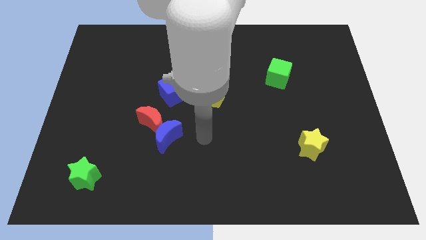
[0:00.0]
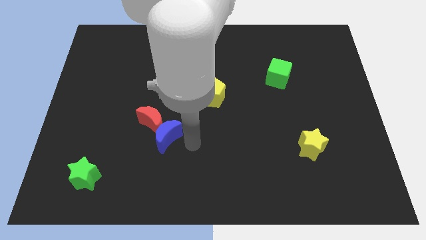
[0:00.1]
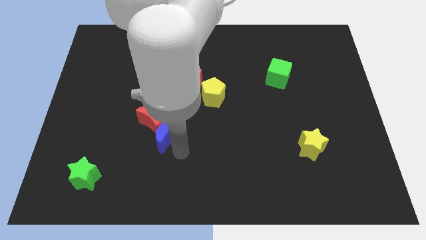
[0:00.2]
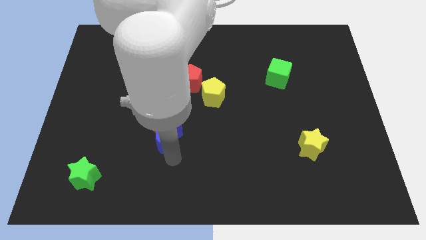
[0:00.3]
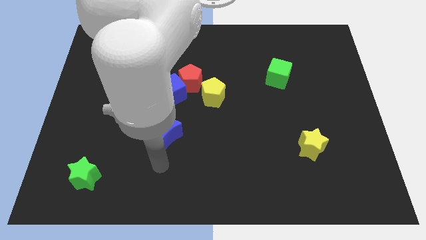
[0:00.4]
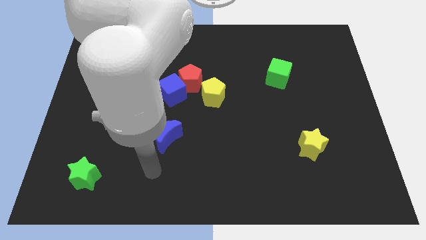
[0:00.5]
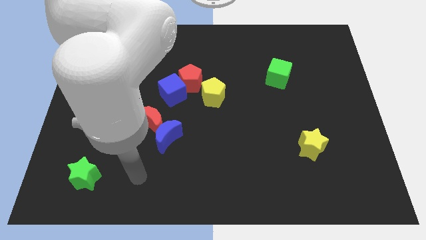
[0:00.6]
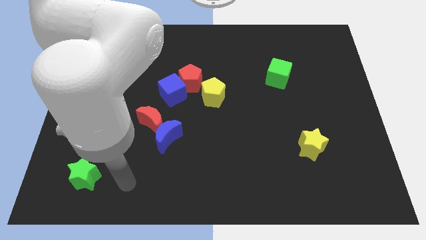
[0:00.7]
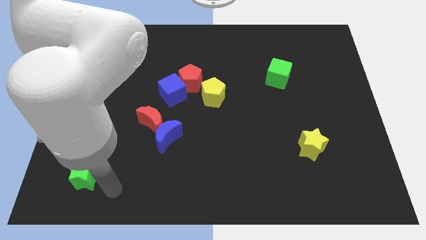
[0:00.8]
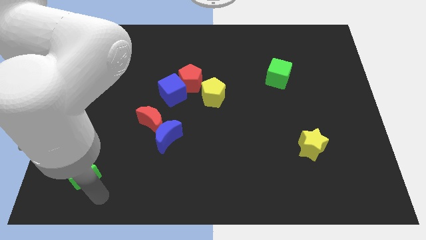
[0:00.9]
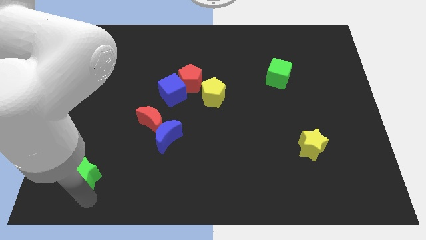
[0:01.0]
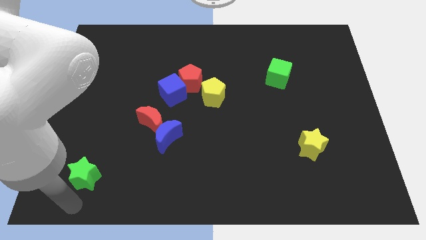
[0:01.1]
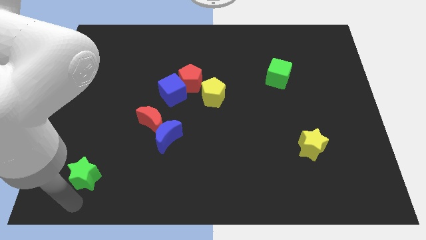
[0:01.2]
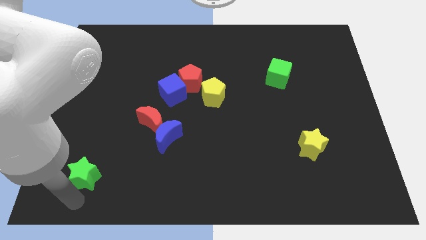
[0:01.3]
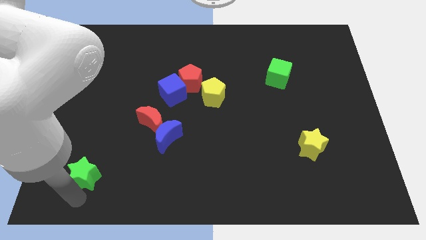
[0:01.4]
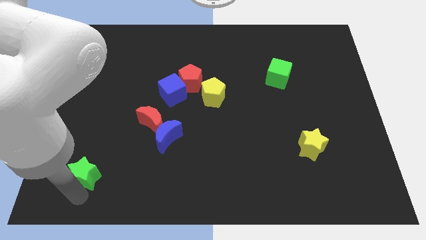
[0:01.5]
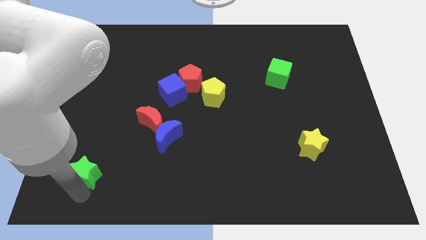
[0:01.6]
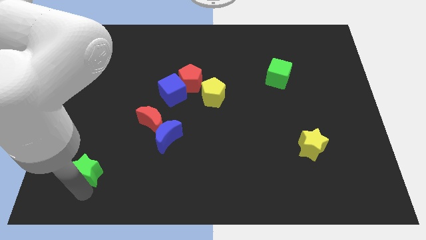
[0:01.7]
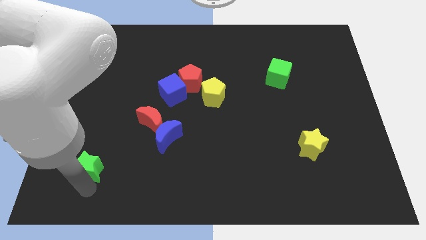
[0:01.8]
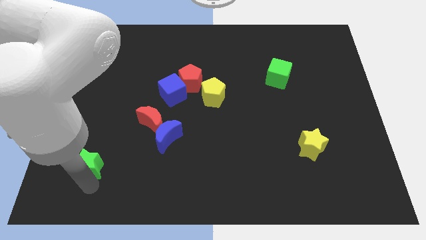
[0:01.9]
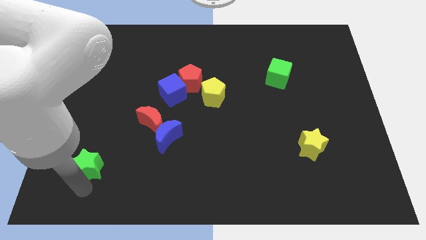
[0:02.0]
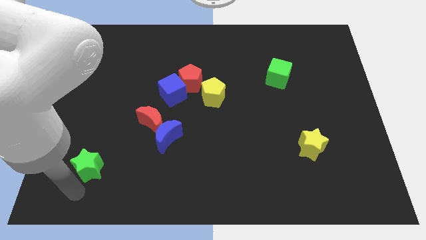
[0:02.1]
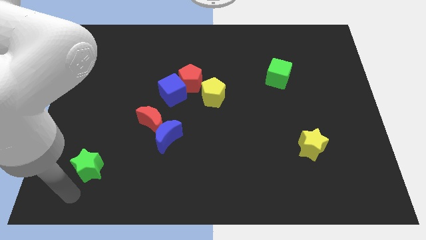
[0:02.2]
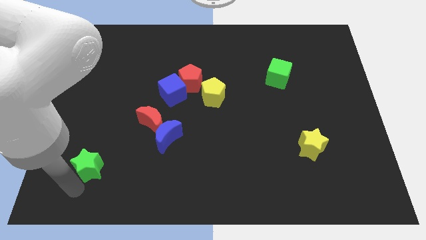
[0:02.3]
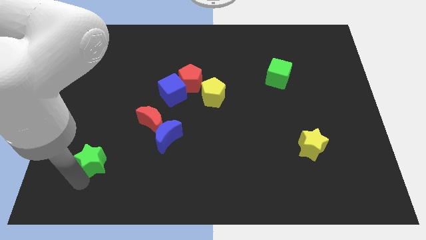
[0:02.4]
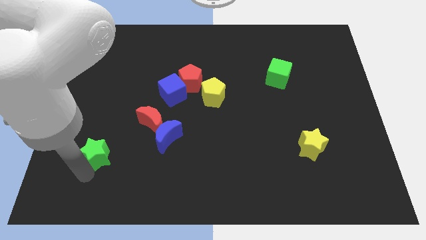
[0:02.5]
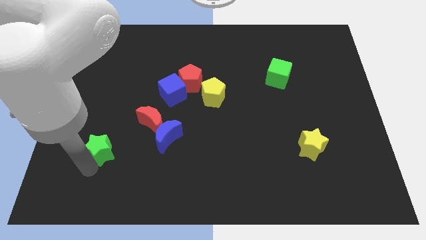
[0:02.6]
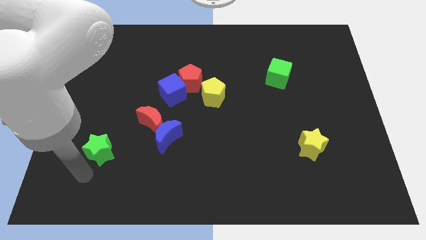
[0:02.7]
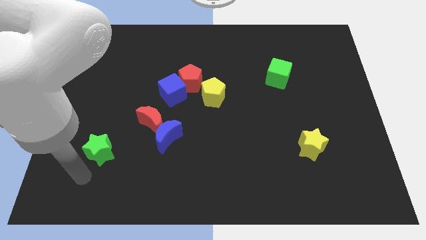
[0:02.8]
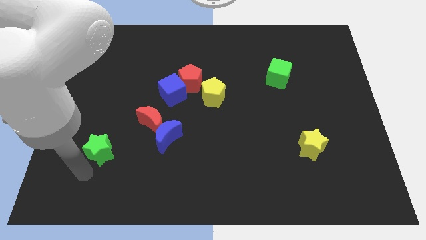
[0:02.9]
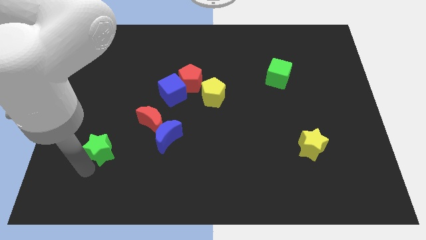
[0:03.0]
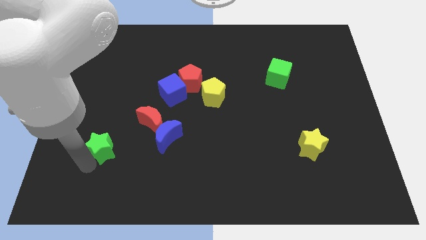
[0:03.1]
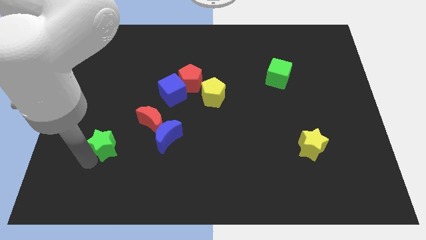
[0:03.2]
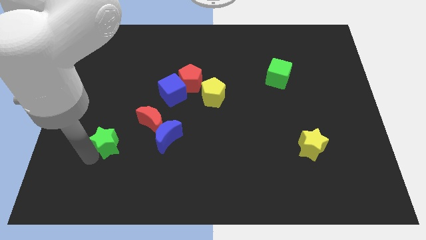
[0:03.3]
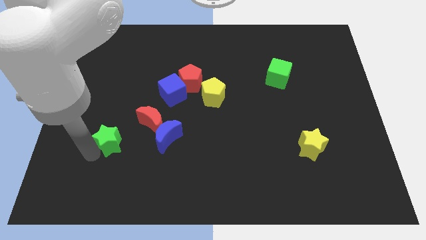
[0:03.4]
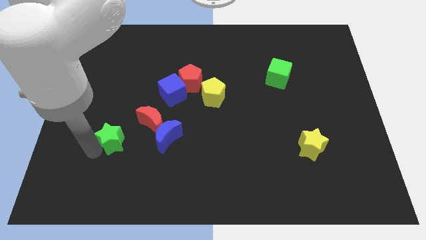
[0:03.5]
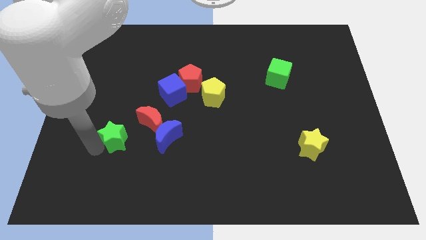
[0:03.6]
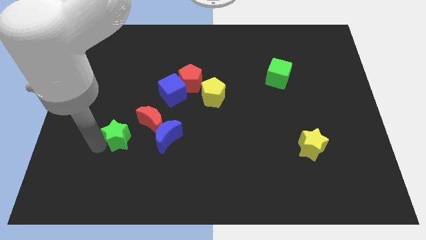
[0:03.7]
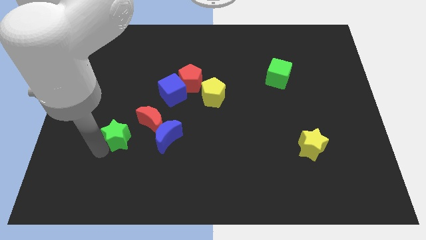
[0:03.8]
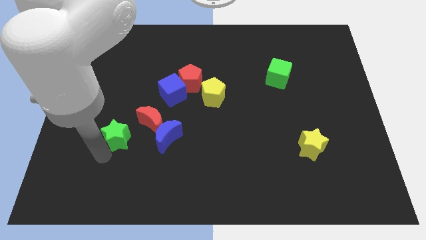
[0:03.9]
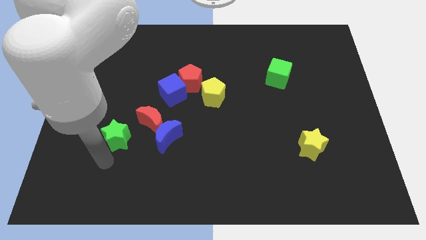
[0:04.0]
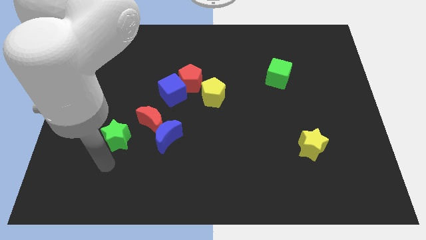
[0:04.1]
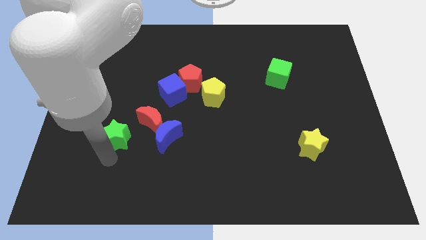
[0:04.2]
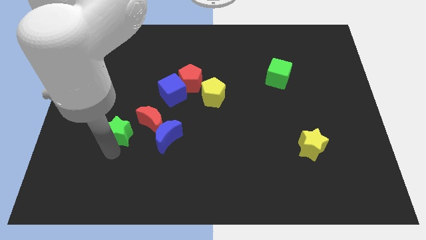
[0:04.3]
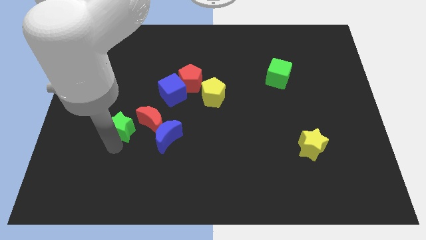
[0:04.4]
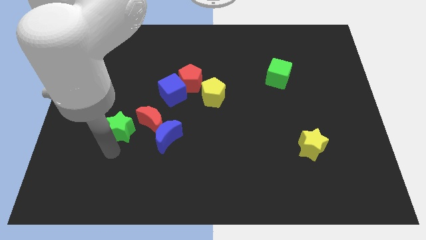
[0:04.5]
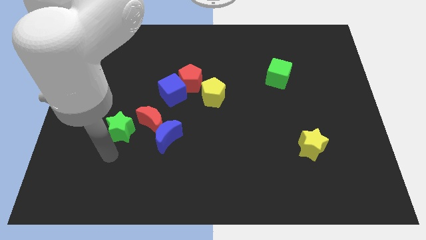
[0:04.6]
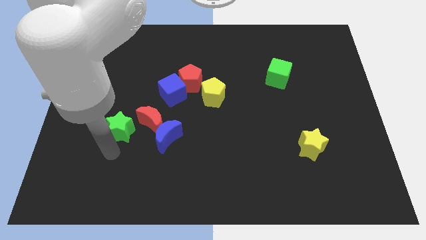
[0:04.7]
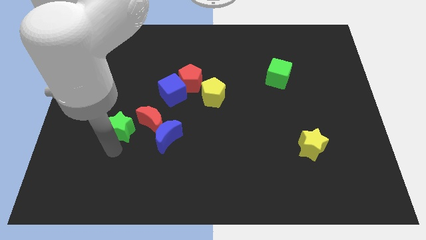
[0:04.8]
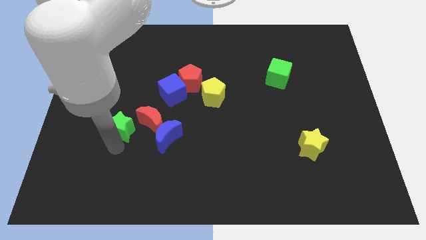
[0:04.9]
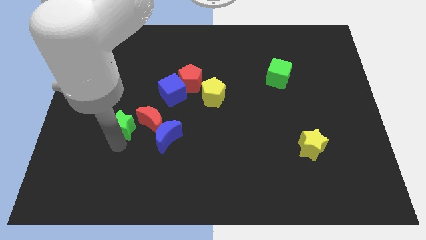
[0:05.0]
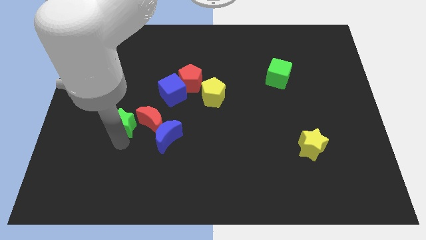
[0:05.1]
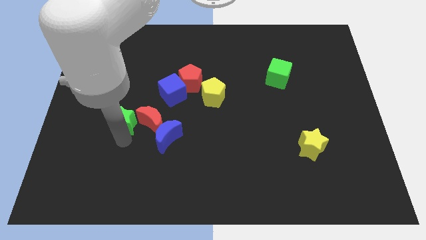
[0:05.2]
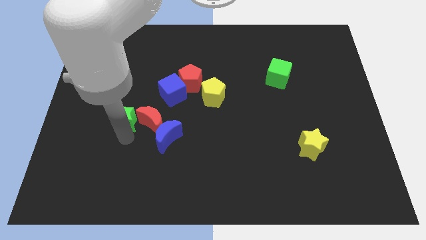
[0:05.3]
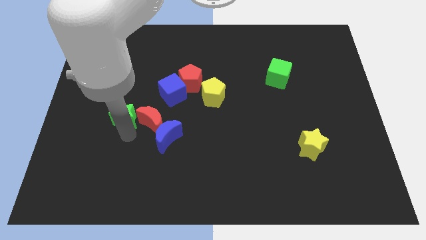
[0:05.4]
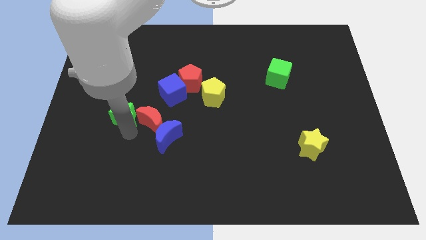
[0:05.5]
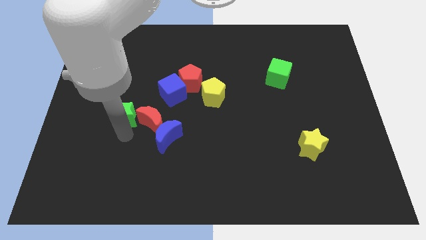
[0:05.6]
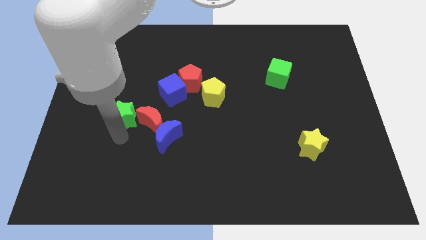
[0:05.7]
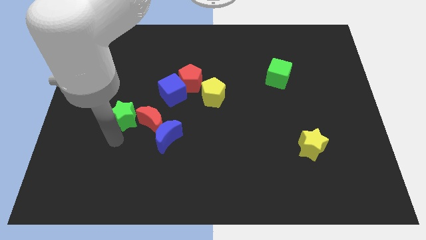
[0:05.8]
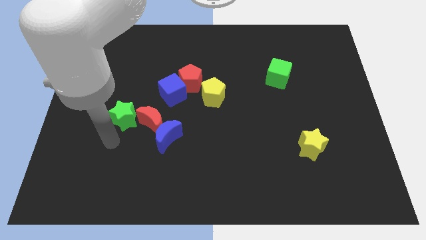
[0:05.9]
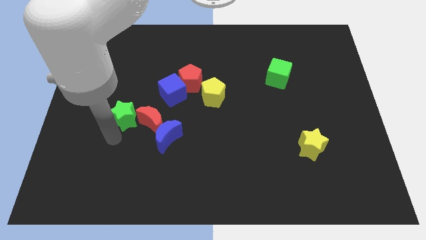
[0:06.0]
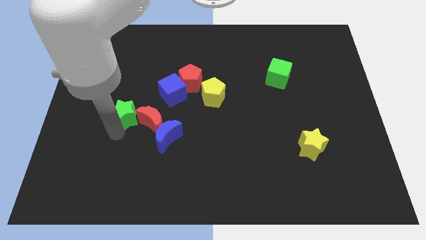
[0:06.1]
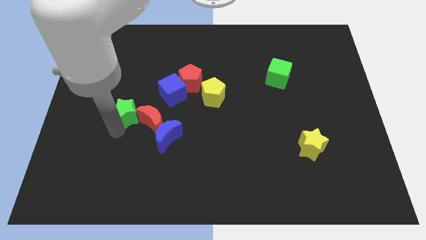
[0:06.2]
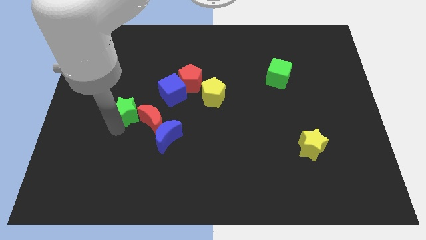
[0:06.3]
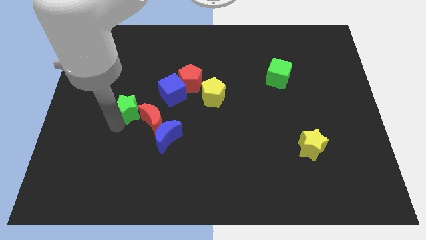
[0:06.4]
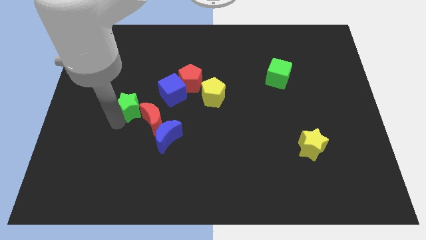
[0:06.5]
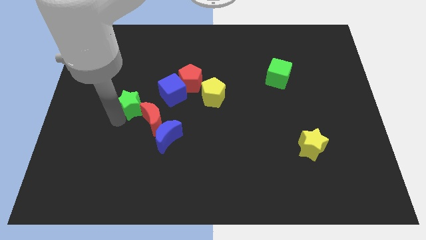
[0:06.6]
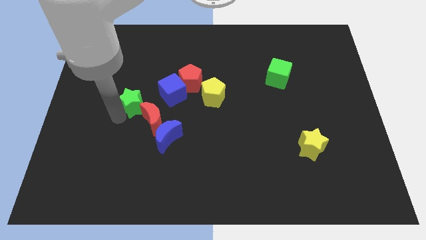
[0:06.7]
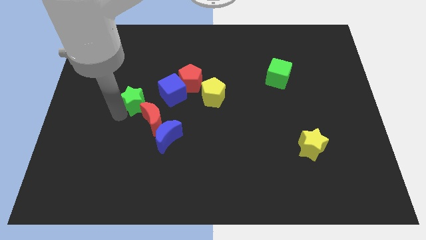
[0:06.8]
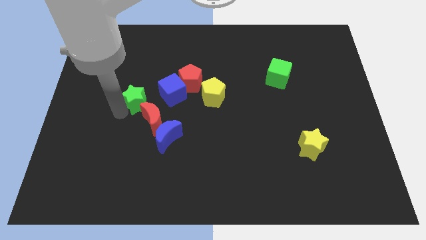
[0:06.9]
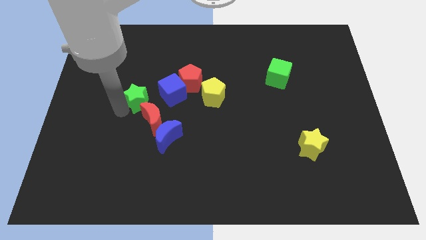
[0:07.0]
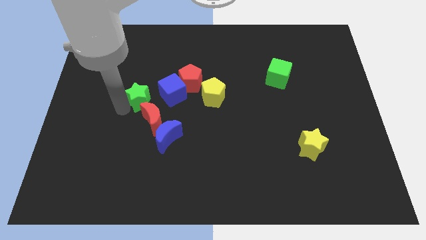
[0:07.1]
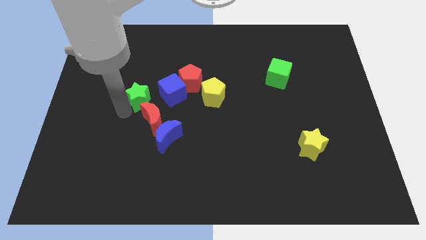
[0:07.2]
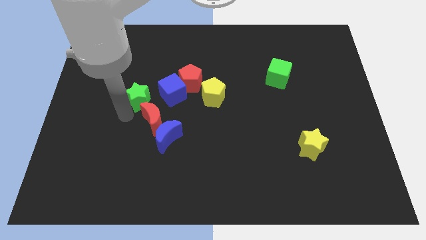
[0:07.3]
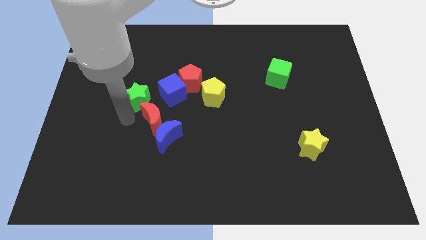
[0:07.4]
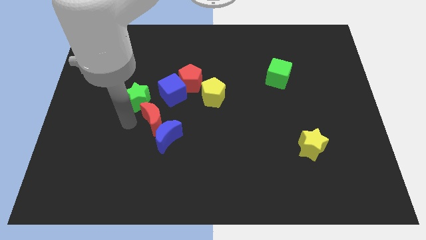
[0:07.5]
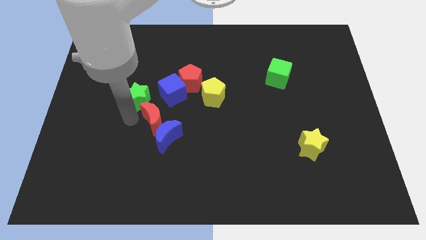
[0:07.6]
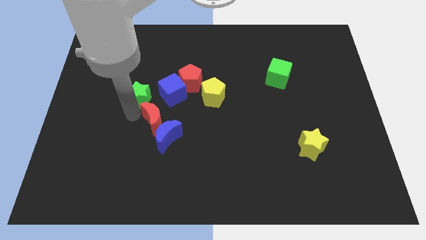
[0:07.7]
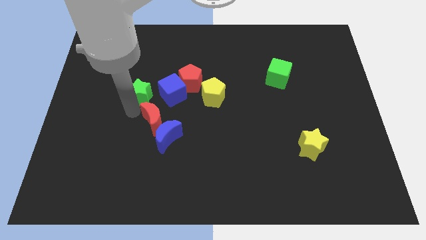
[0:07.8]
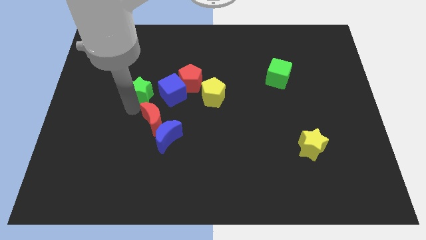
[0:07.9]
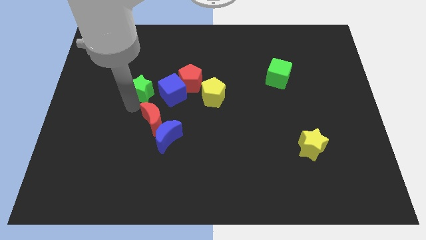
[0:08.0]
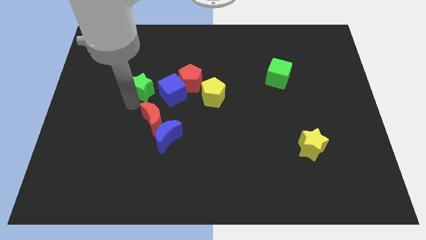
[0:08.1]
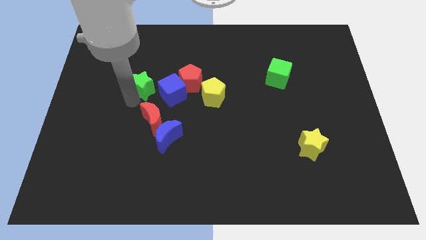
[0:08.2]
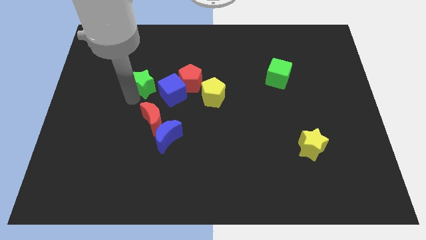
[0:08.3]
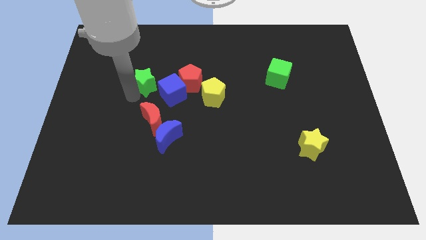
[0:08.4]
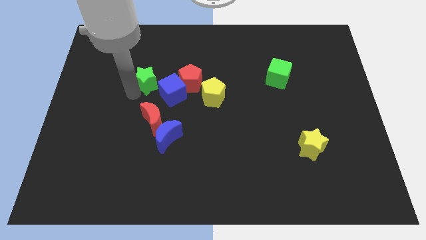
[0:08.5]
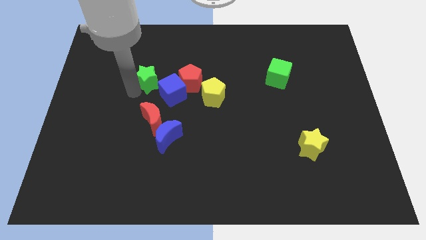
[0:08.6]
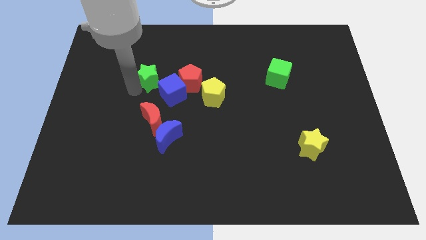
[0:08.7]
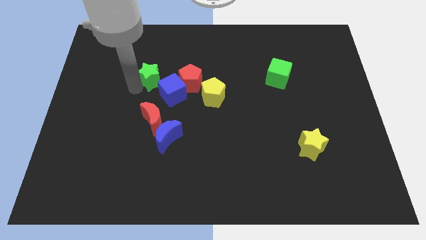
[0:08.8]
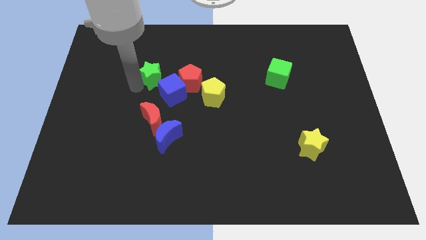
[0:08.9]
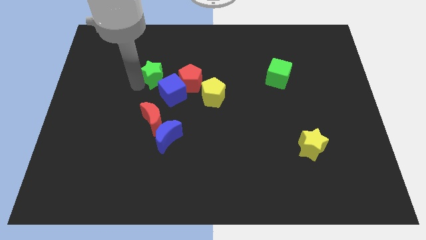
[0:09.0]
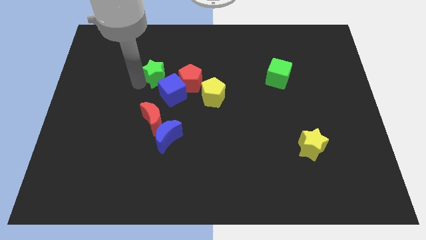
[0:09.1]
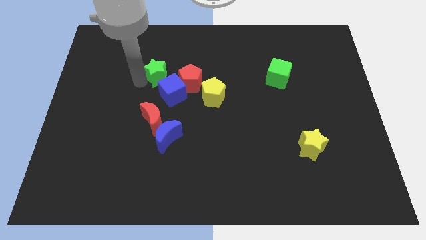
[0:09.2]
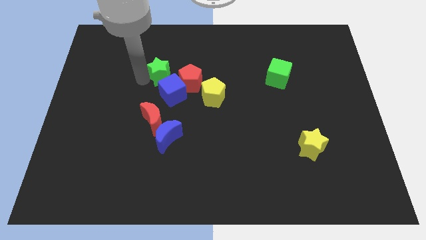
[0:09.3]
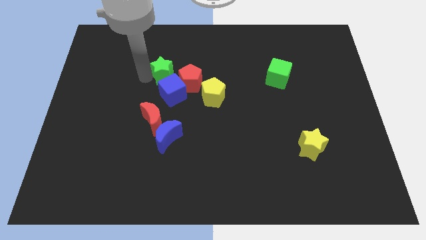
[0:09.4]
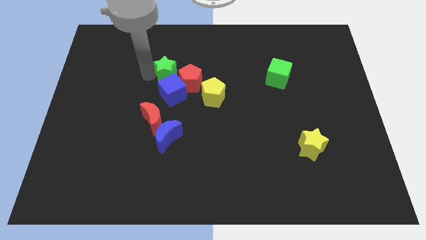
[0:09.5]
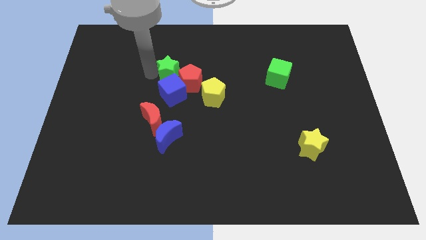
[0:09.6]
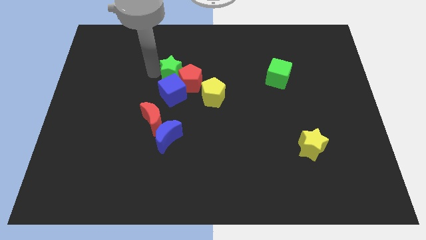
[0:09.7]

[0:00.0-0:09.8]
slide the green star next to the red pentagon
